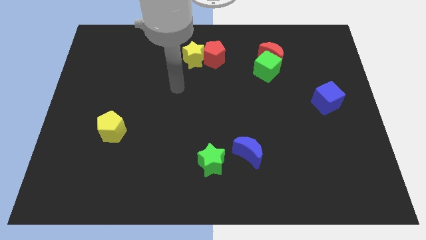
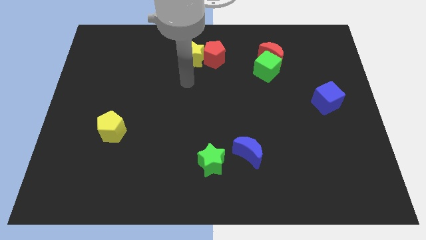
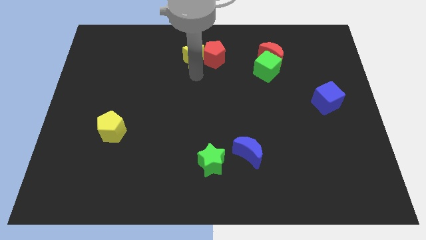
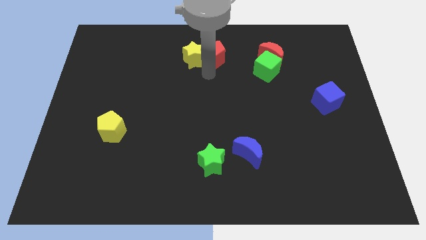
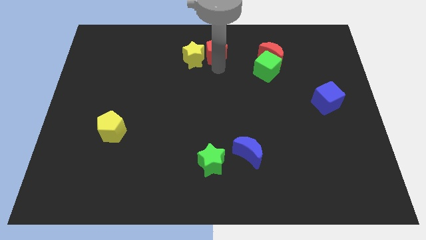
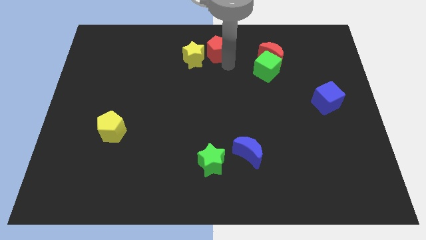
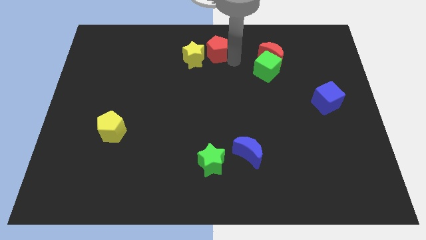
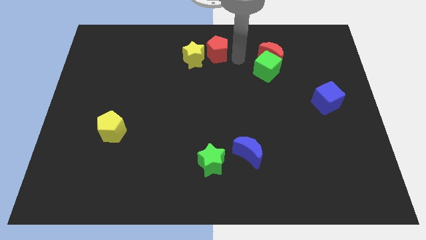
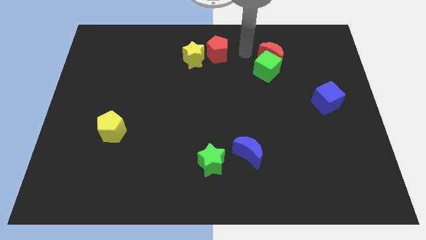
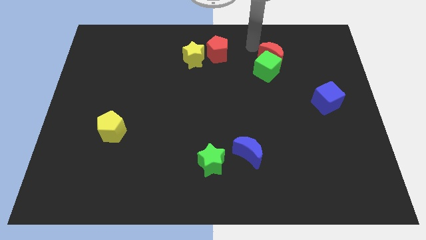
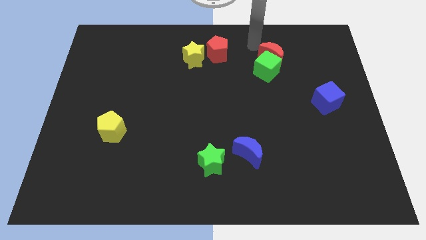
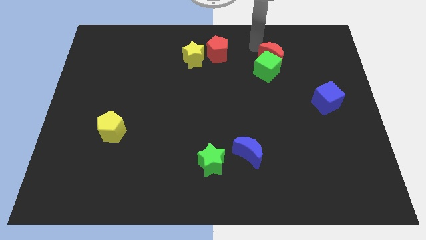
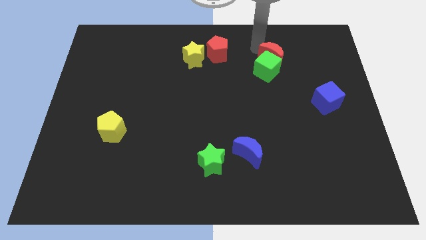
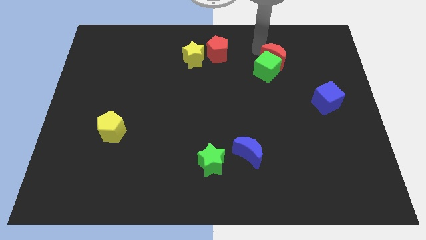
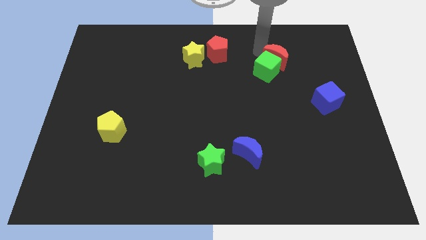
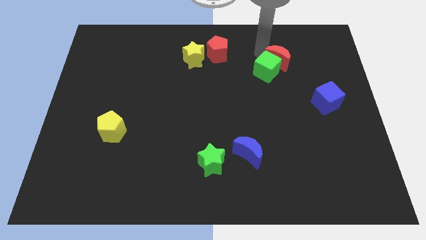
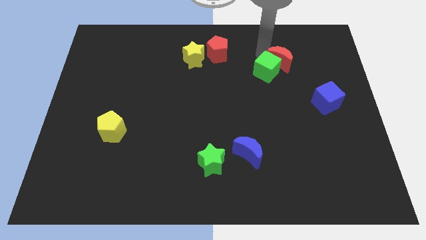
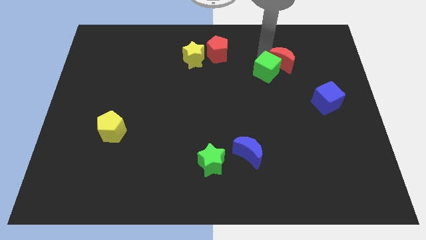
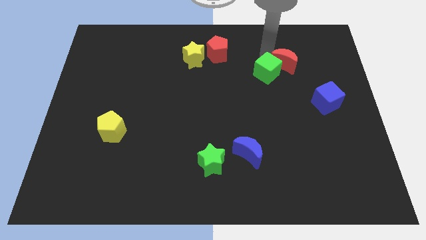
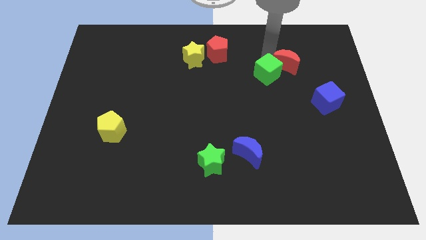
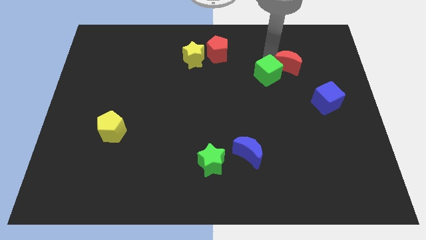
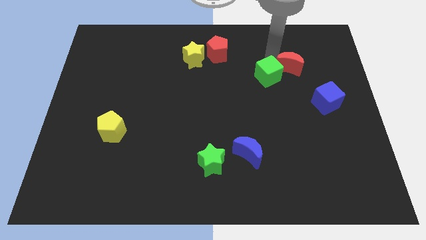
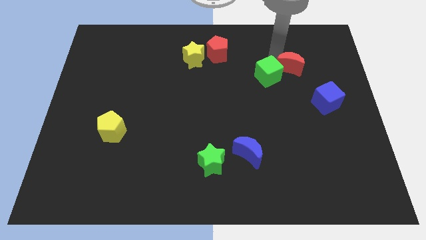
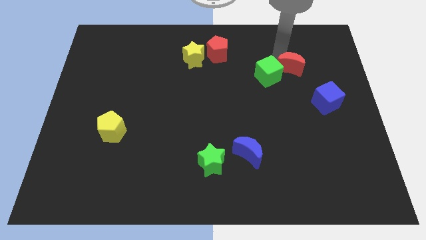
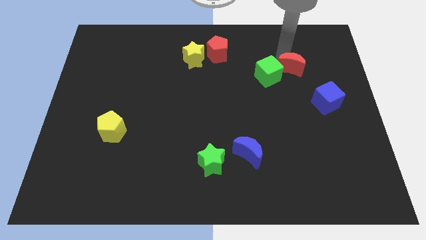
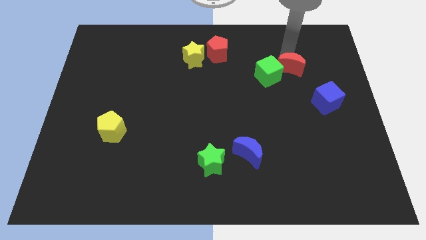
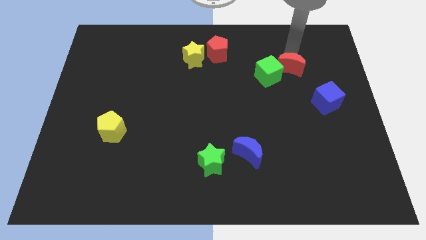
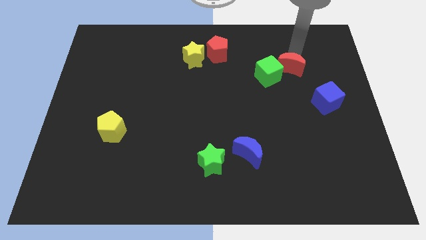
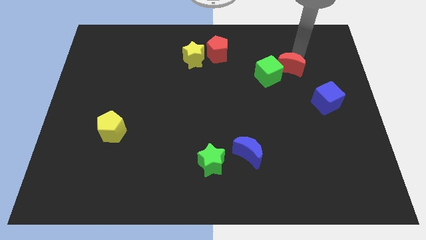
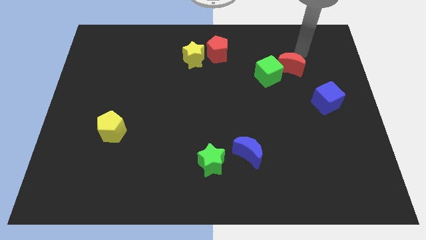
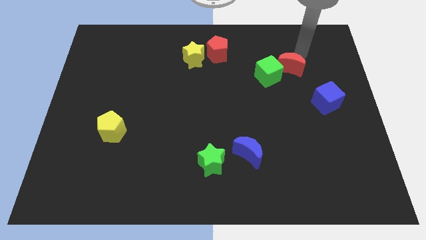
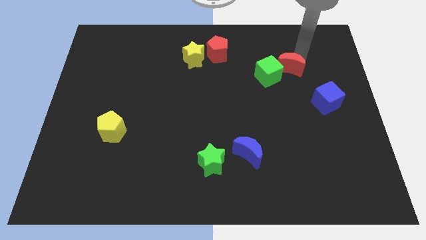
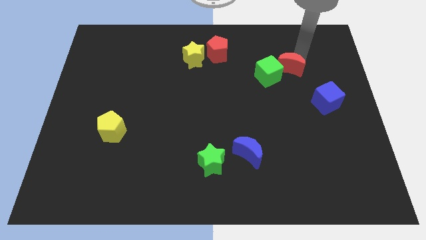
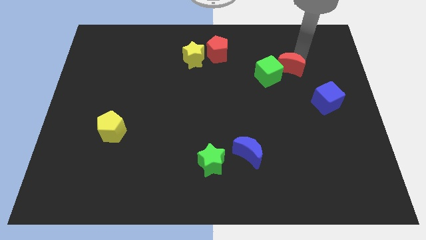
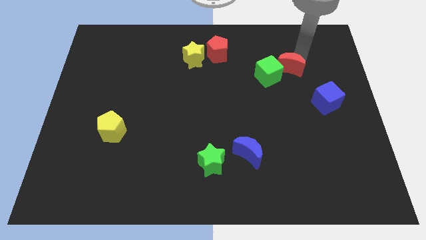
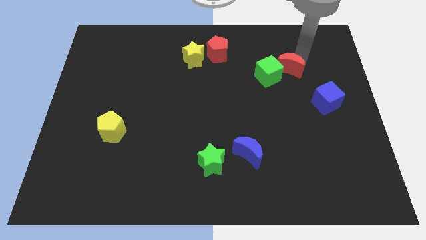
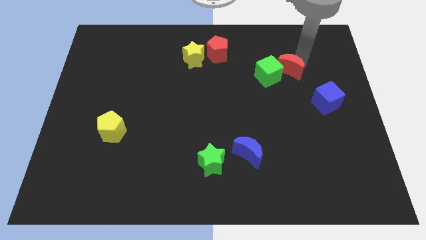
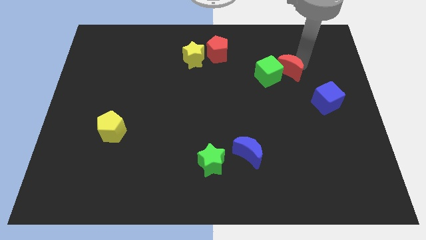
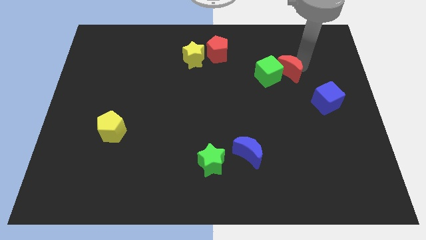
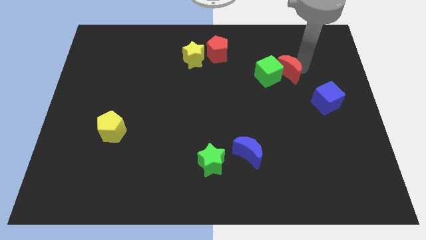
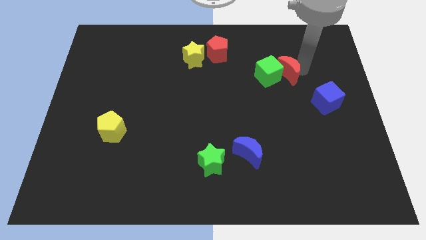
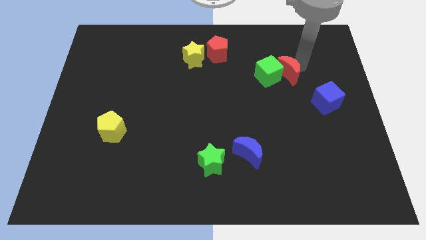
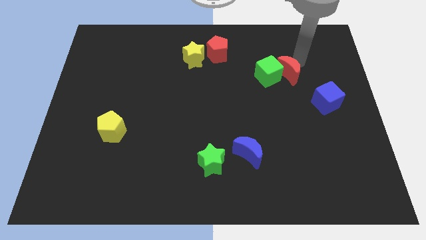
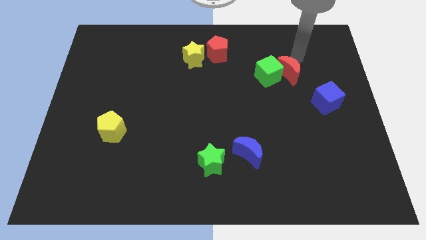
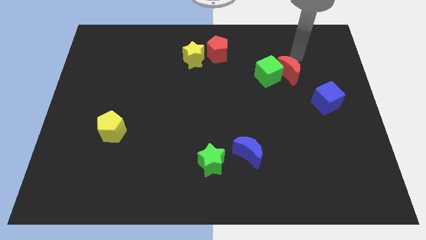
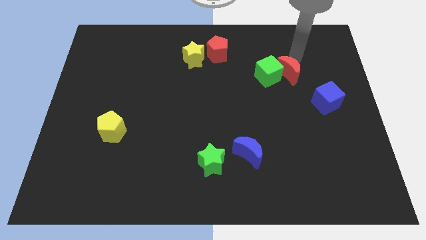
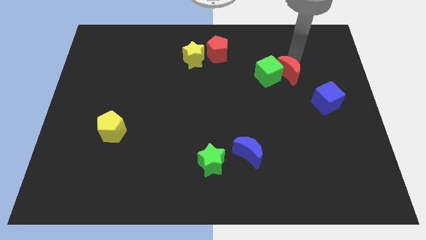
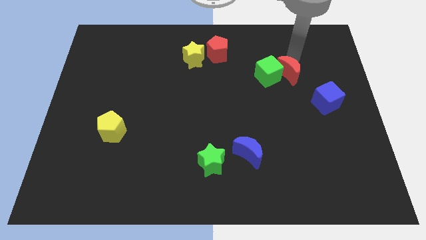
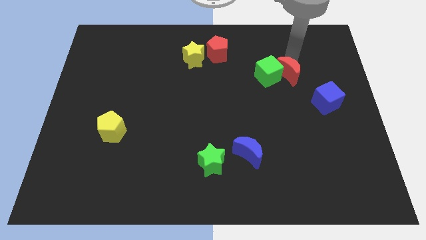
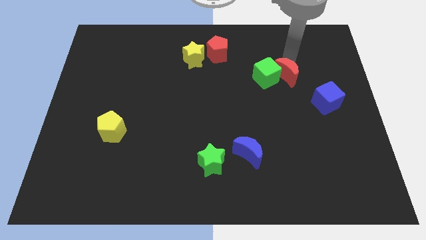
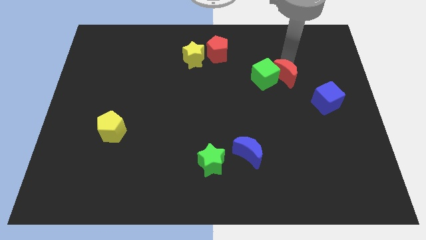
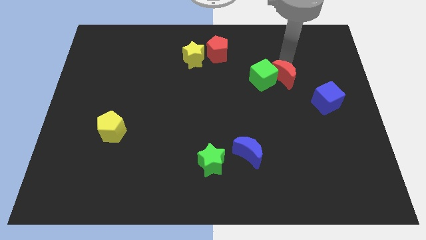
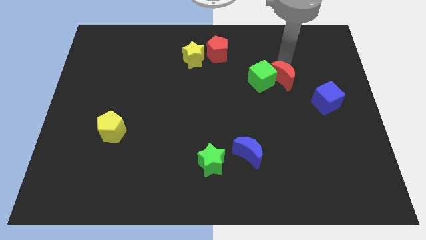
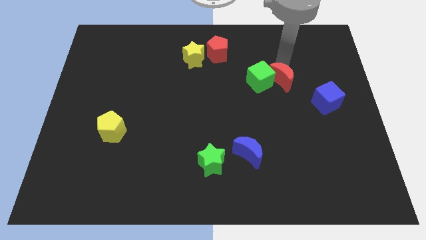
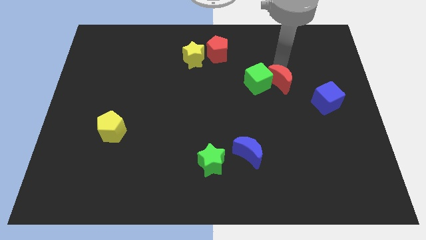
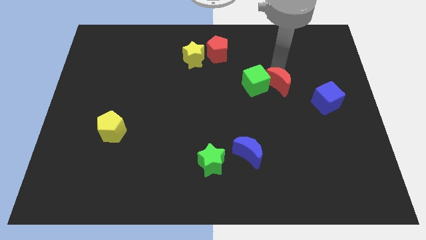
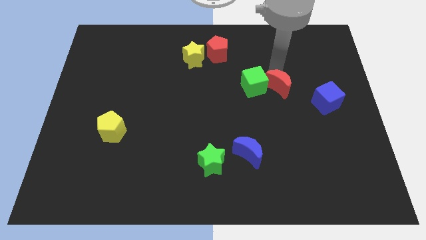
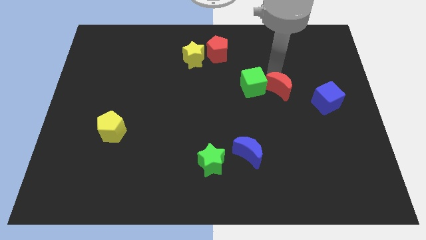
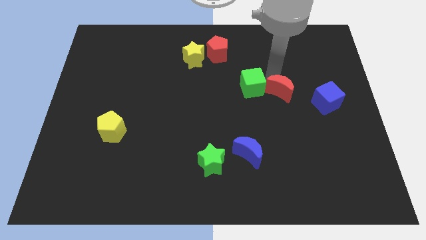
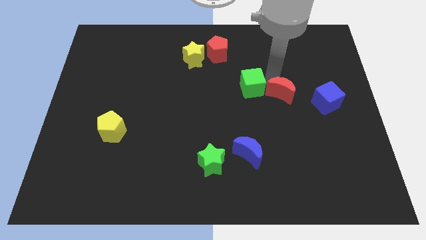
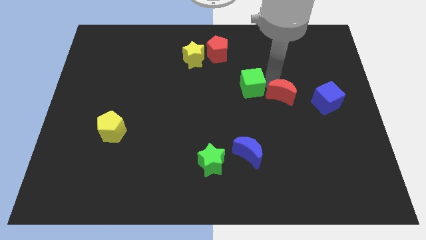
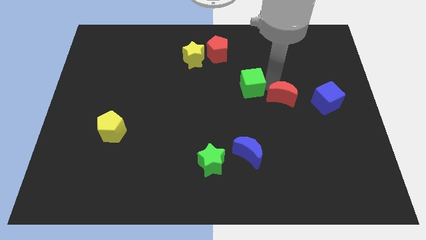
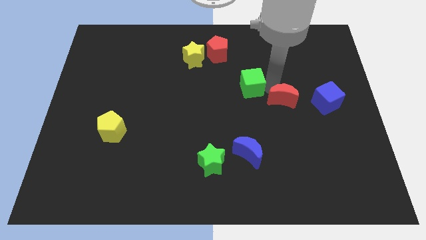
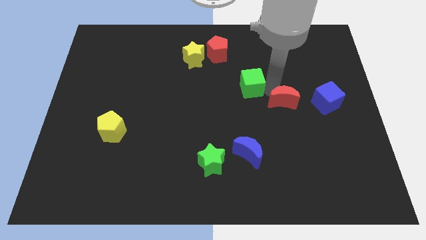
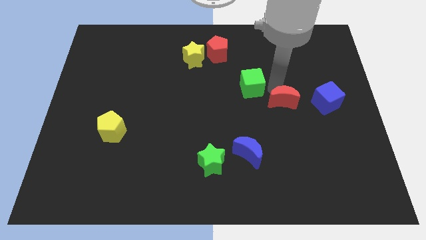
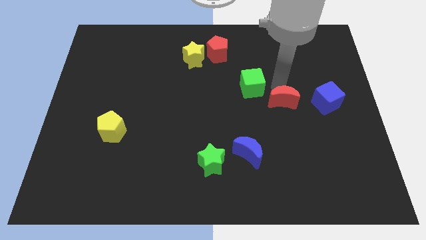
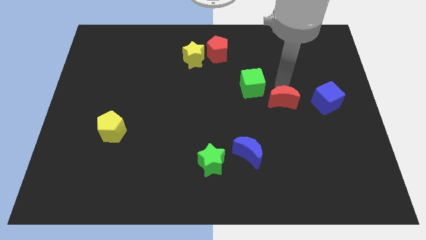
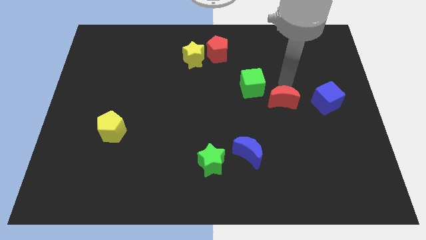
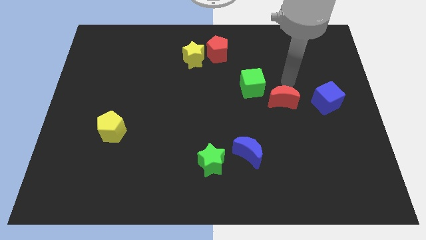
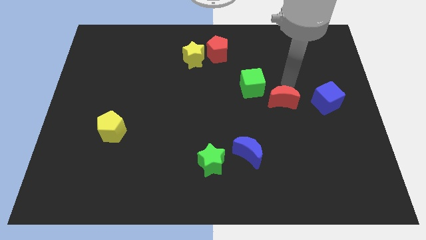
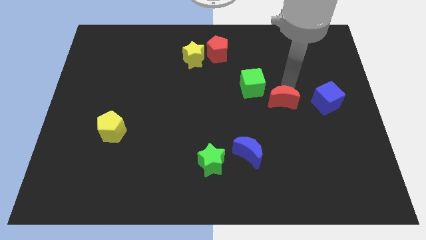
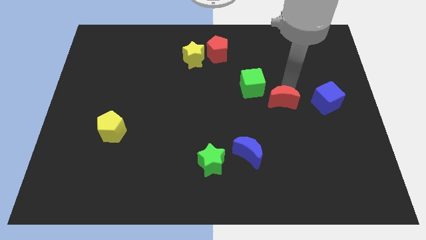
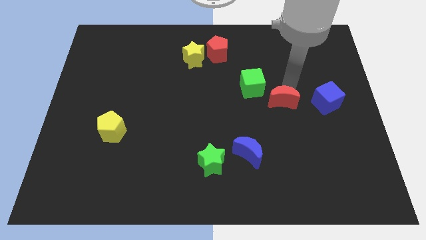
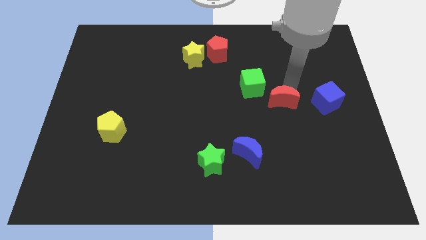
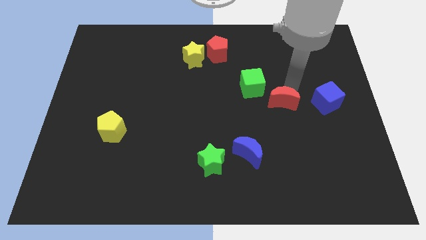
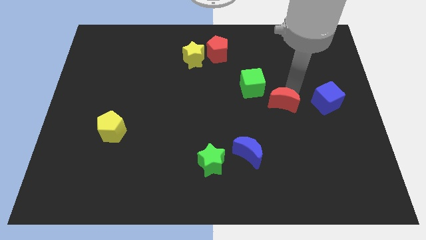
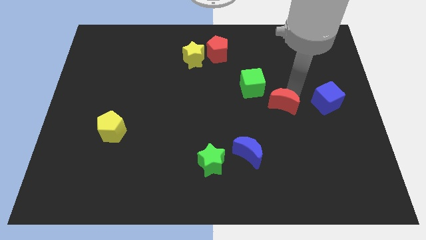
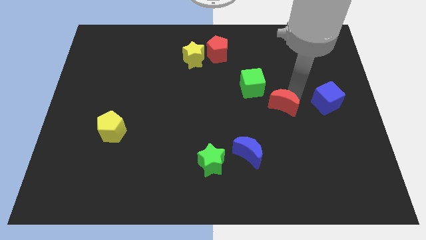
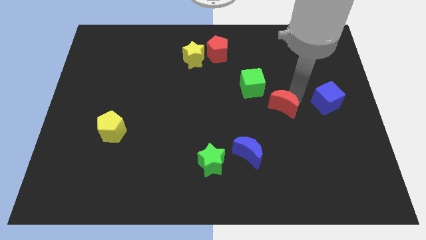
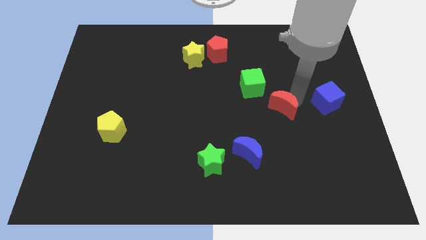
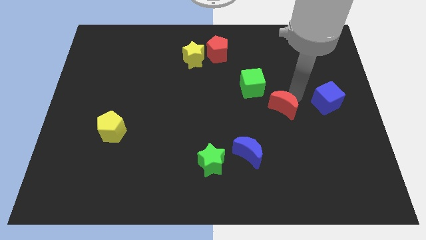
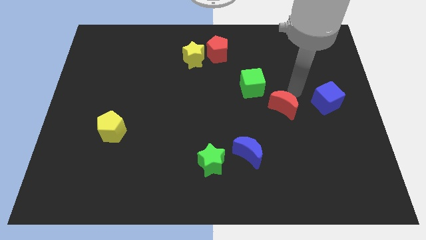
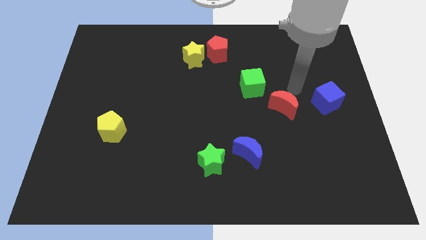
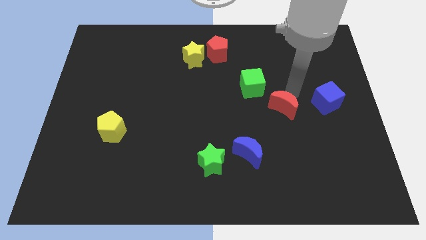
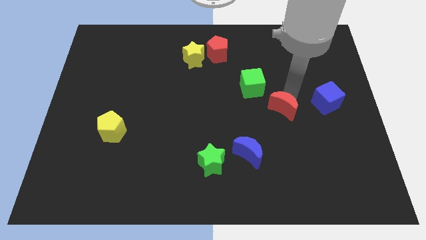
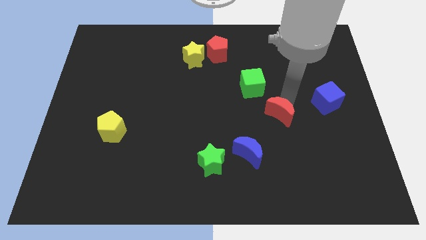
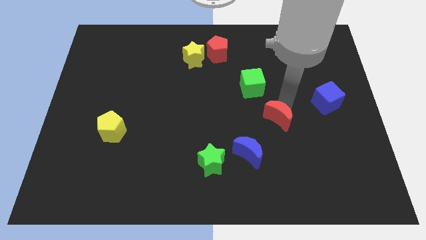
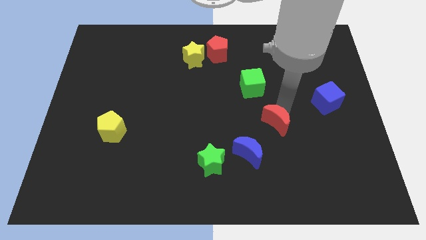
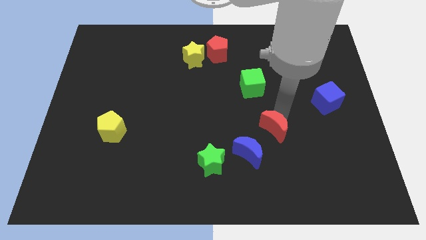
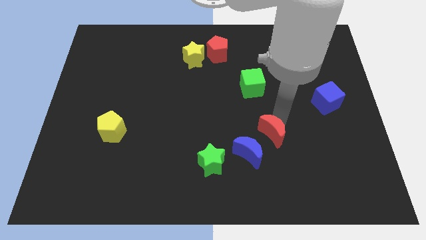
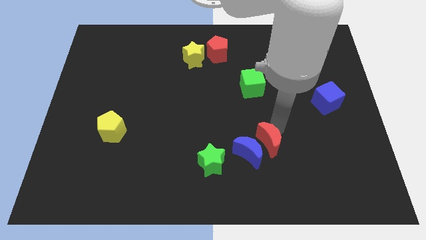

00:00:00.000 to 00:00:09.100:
slide the red moon next to the blue moon
